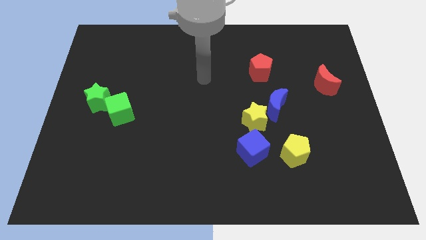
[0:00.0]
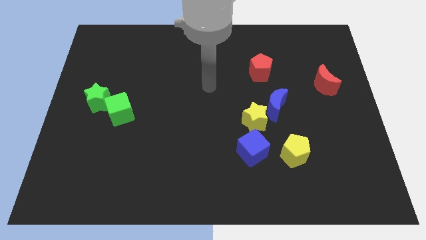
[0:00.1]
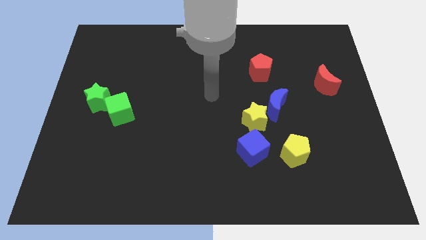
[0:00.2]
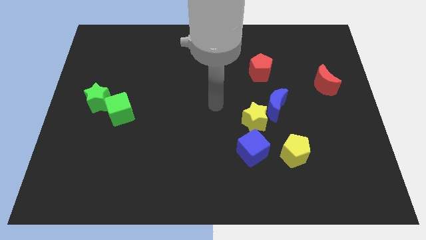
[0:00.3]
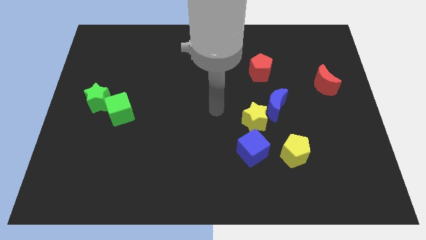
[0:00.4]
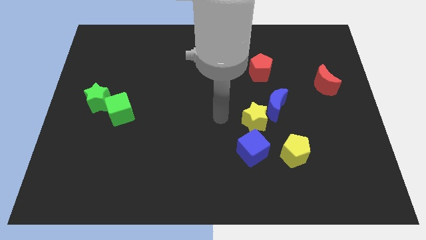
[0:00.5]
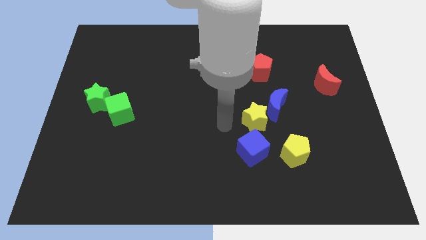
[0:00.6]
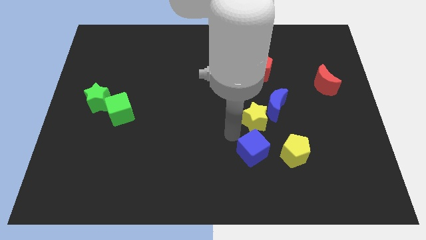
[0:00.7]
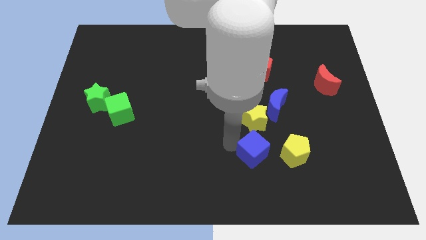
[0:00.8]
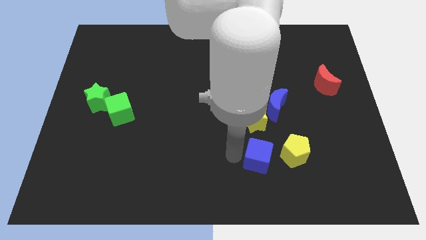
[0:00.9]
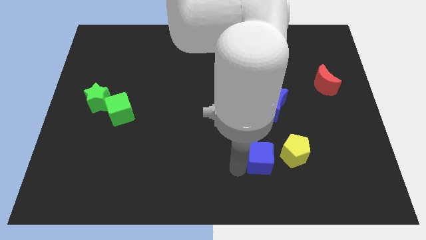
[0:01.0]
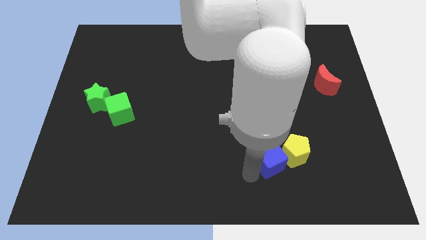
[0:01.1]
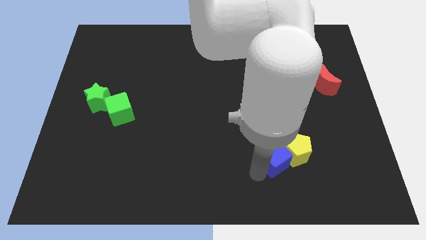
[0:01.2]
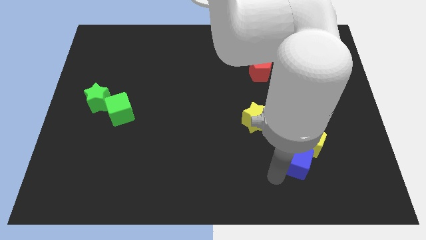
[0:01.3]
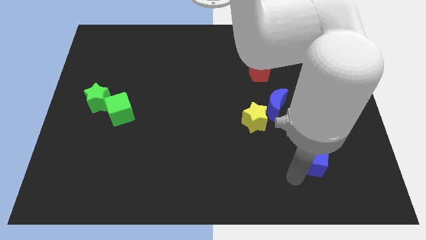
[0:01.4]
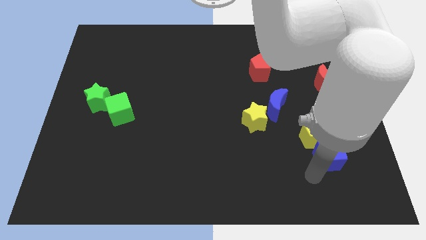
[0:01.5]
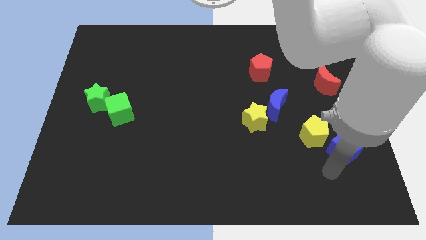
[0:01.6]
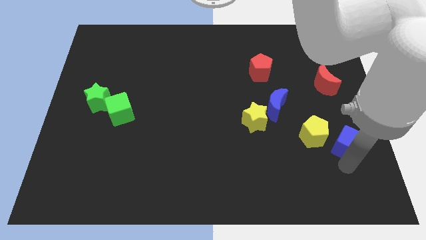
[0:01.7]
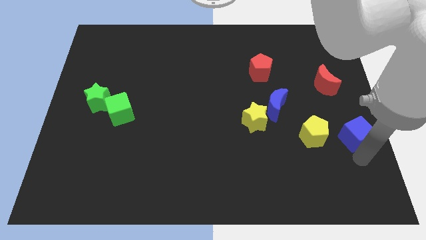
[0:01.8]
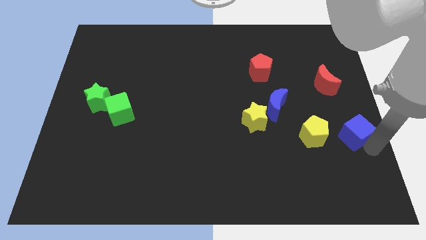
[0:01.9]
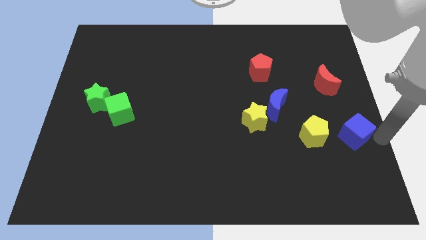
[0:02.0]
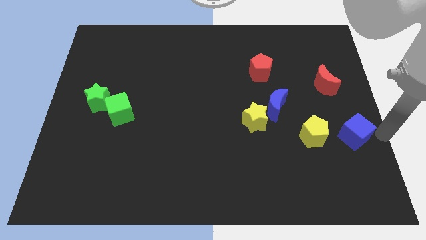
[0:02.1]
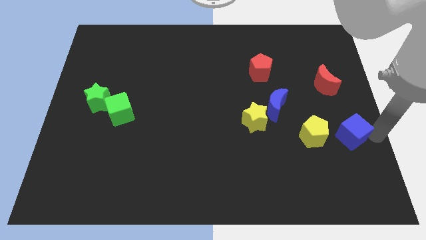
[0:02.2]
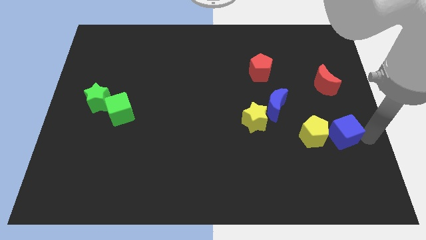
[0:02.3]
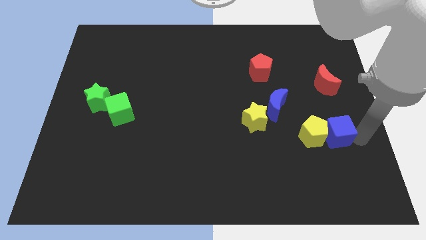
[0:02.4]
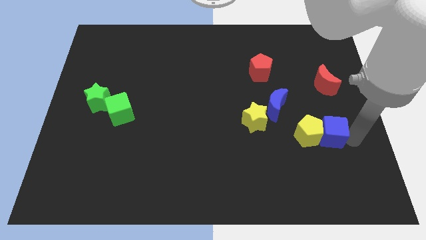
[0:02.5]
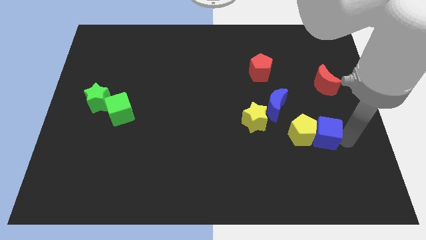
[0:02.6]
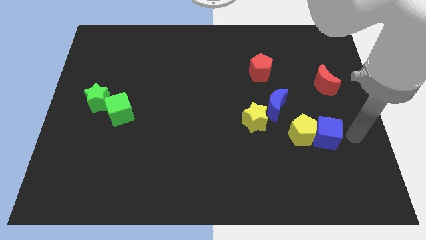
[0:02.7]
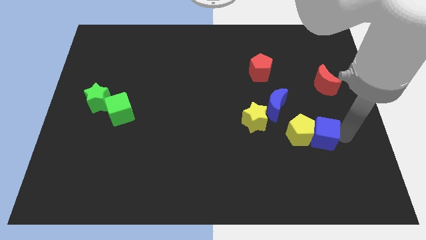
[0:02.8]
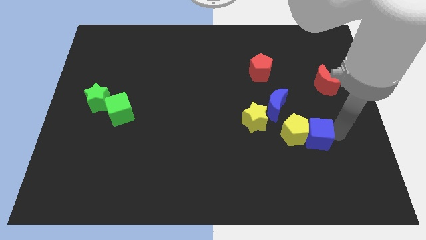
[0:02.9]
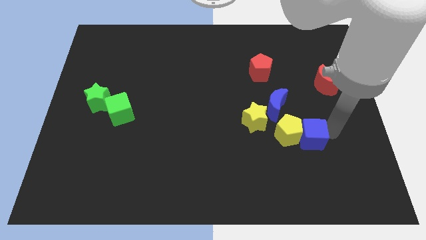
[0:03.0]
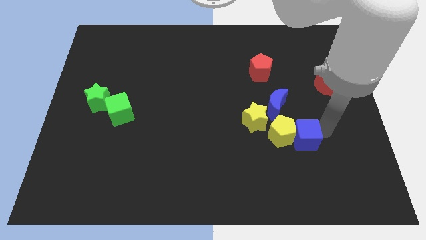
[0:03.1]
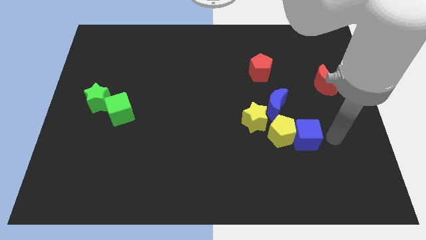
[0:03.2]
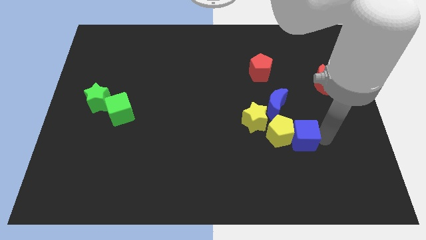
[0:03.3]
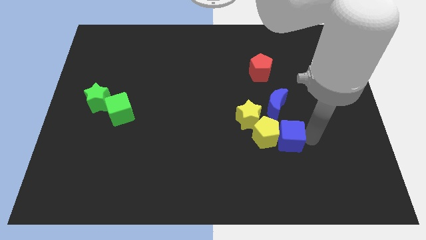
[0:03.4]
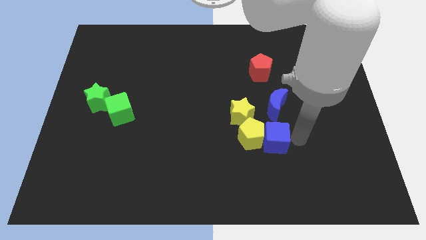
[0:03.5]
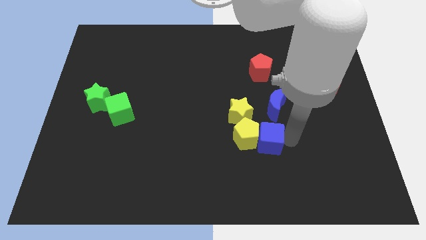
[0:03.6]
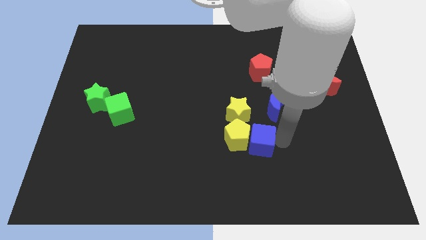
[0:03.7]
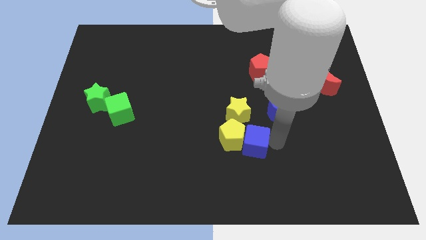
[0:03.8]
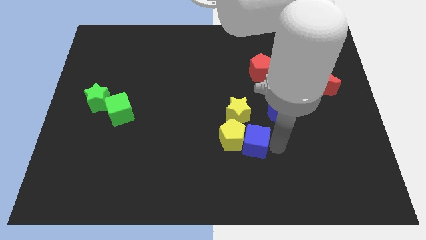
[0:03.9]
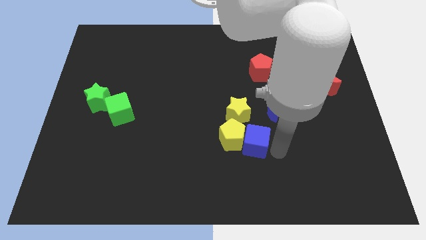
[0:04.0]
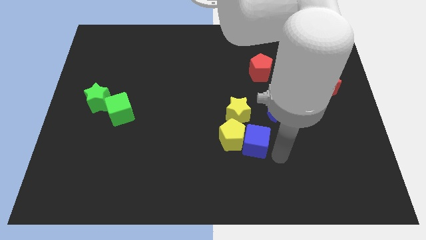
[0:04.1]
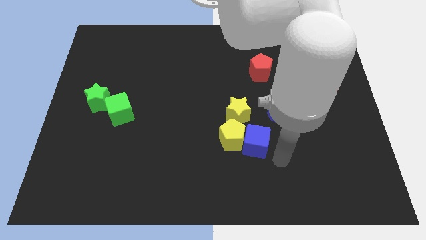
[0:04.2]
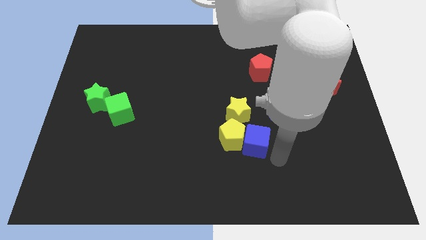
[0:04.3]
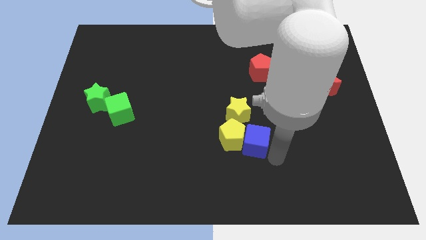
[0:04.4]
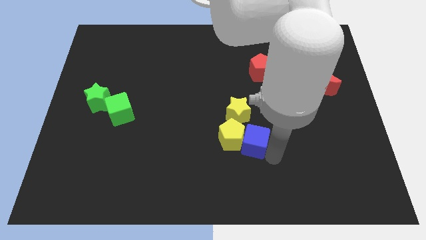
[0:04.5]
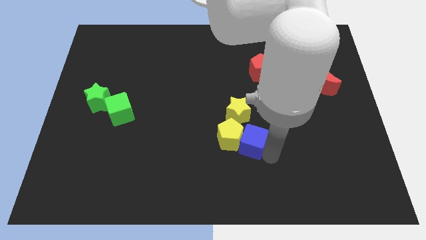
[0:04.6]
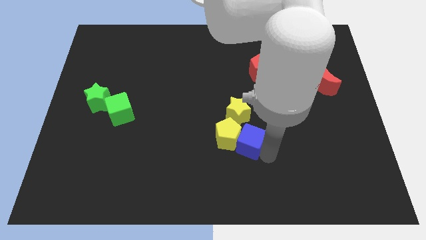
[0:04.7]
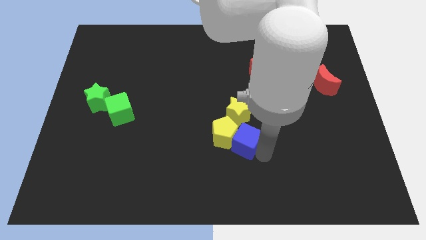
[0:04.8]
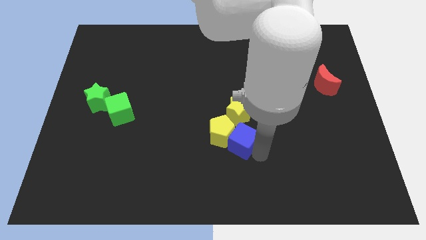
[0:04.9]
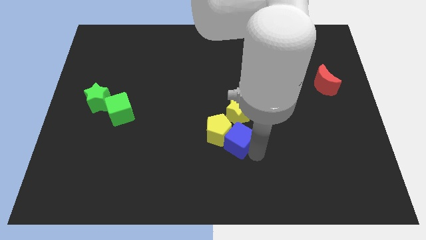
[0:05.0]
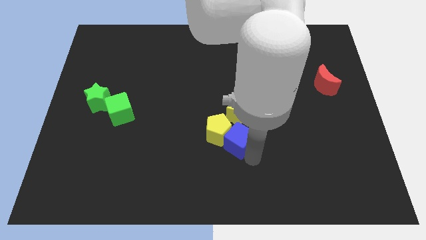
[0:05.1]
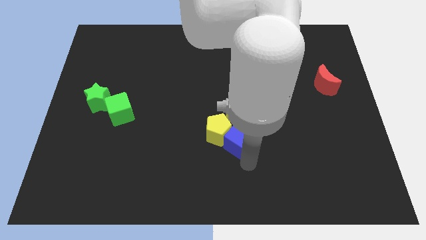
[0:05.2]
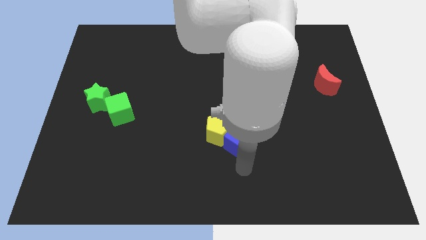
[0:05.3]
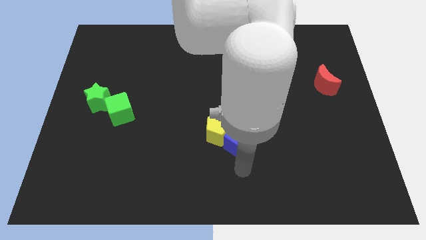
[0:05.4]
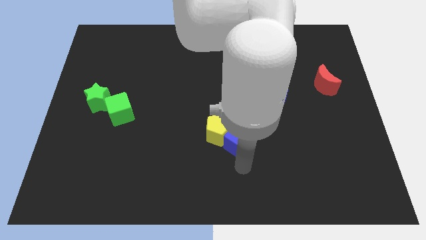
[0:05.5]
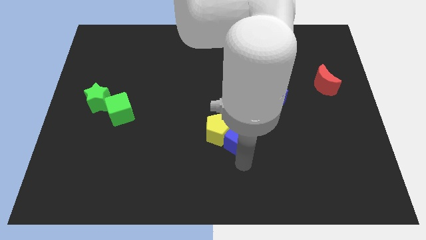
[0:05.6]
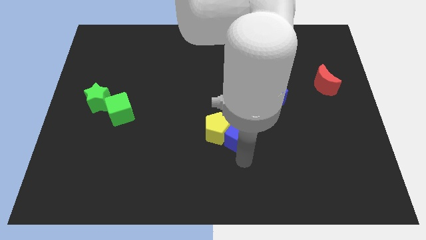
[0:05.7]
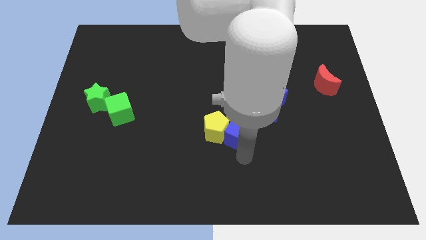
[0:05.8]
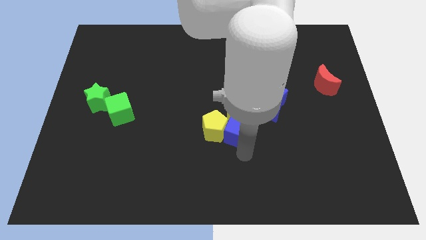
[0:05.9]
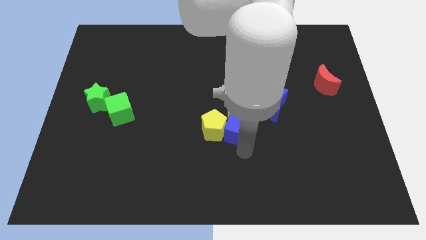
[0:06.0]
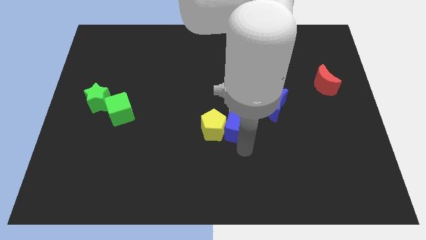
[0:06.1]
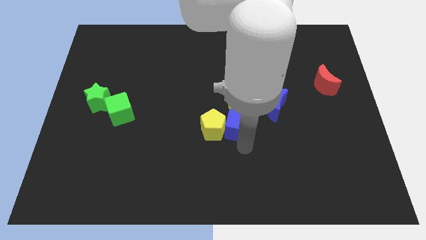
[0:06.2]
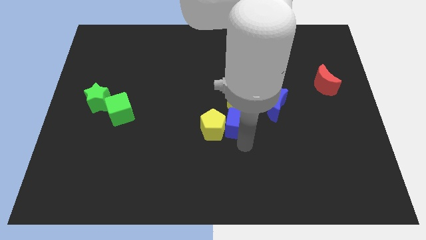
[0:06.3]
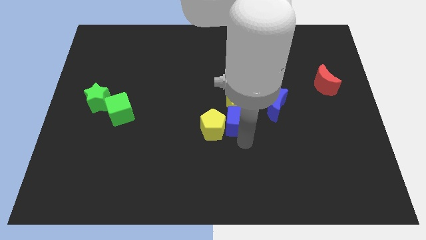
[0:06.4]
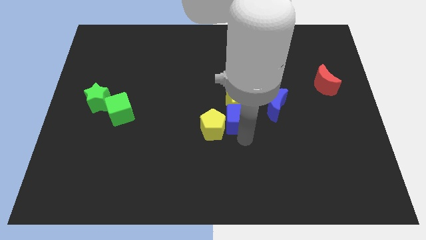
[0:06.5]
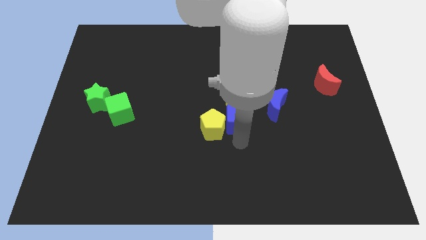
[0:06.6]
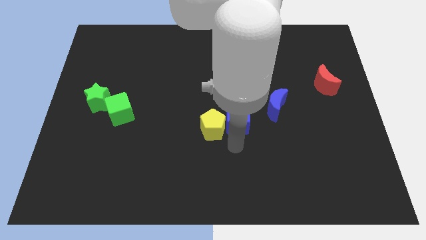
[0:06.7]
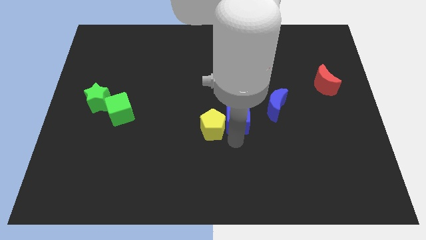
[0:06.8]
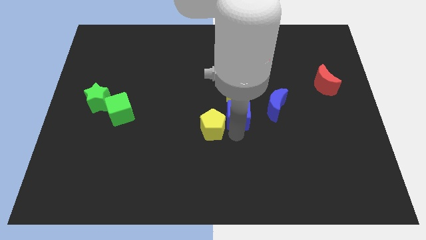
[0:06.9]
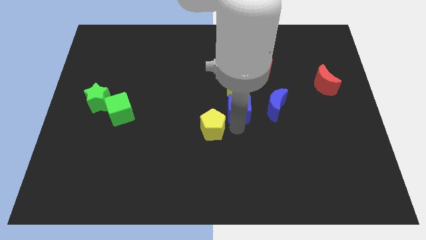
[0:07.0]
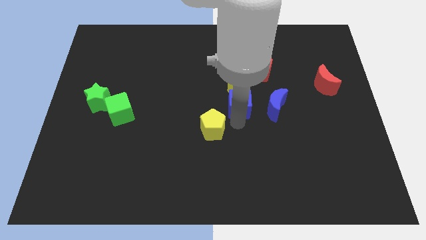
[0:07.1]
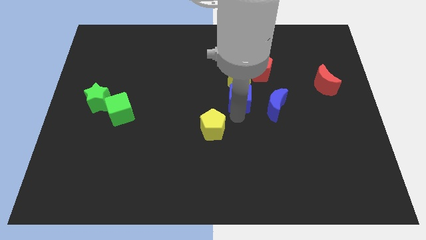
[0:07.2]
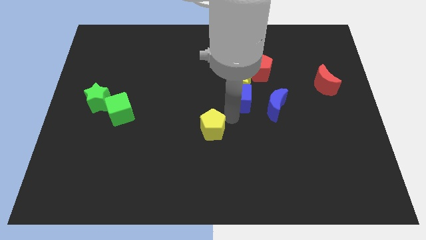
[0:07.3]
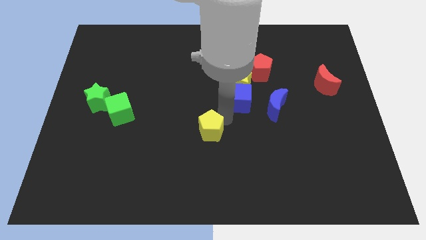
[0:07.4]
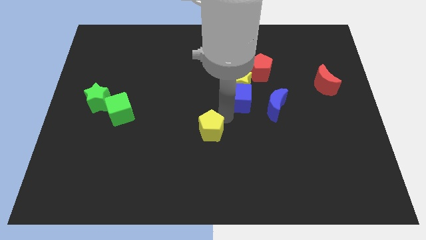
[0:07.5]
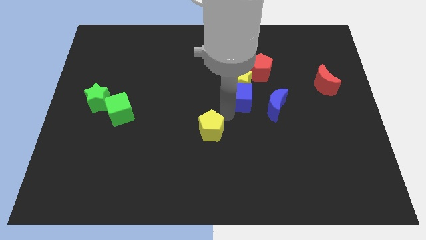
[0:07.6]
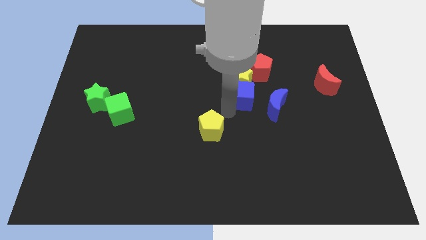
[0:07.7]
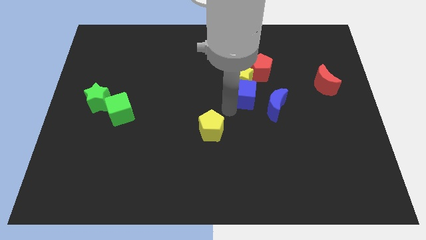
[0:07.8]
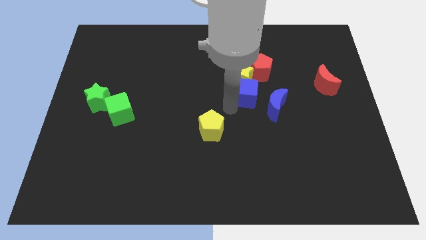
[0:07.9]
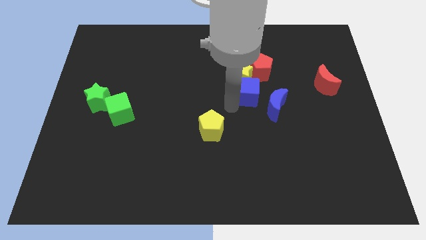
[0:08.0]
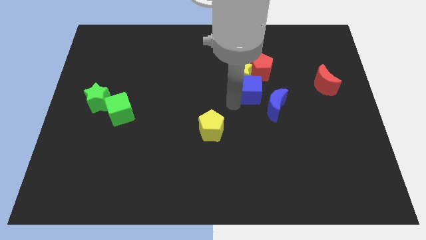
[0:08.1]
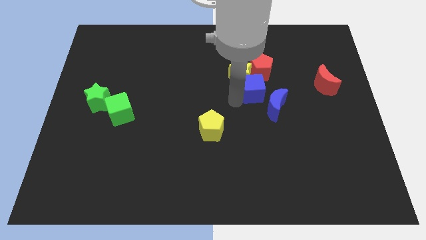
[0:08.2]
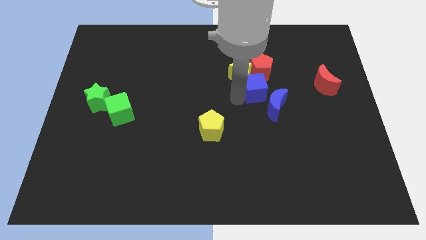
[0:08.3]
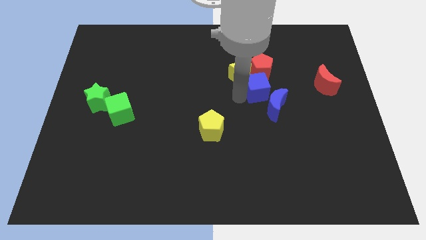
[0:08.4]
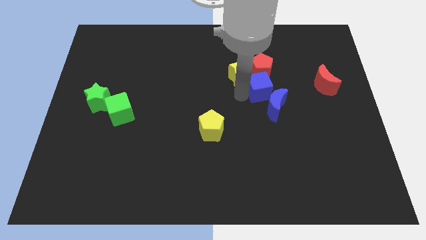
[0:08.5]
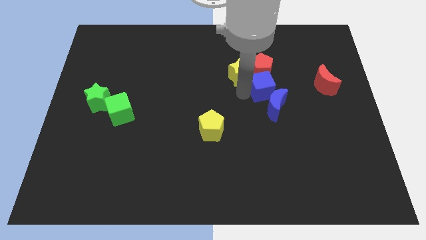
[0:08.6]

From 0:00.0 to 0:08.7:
move the blue cube close to the red pentagon
